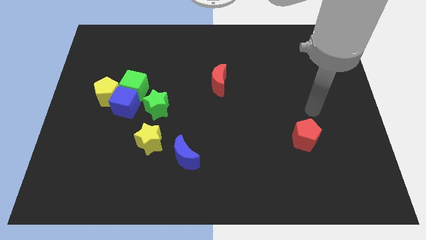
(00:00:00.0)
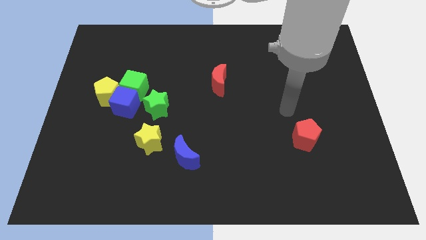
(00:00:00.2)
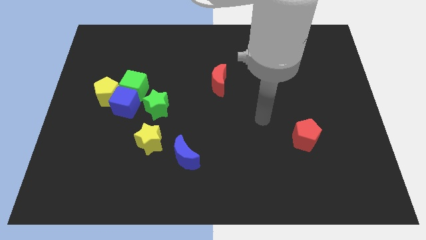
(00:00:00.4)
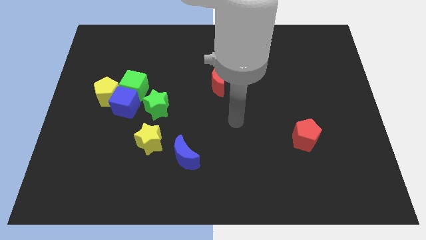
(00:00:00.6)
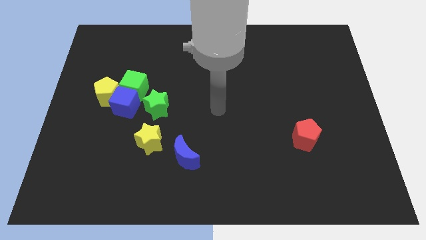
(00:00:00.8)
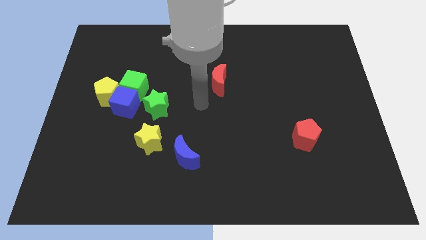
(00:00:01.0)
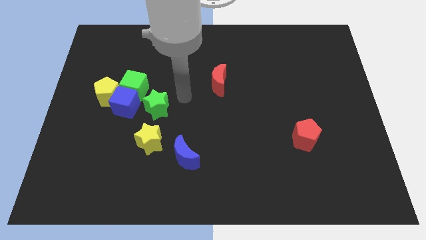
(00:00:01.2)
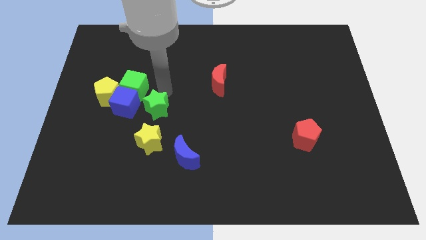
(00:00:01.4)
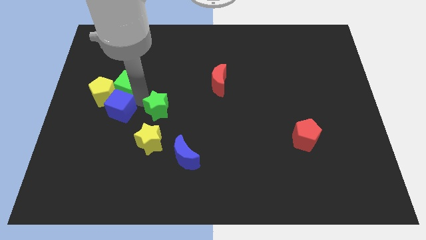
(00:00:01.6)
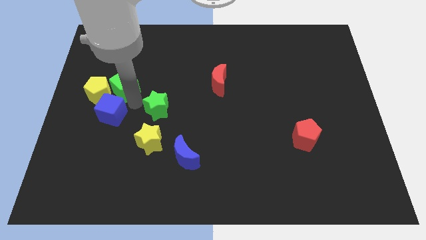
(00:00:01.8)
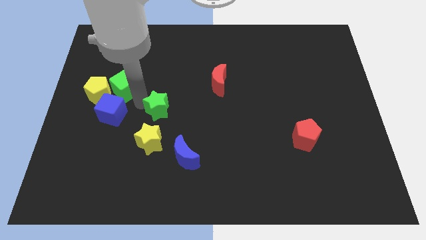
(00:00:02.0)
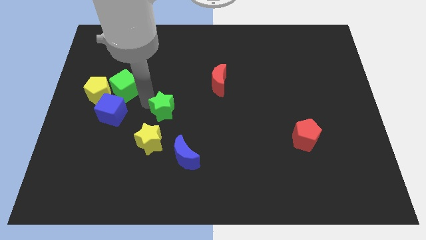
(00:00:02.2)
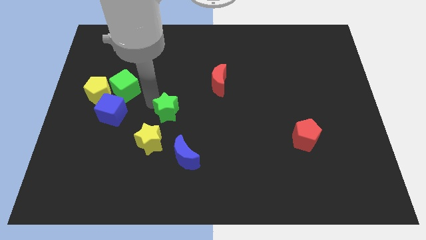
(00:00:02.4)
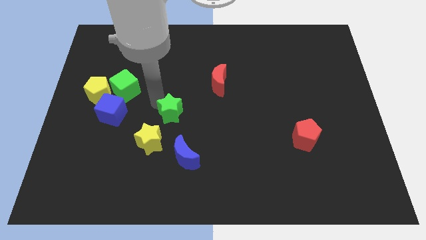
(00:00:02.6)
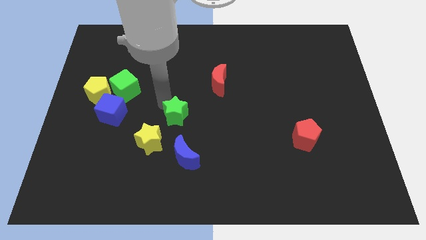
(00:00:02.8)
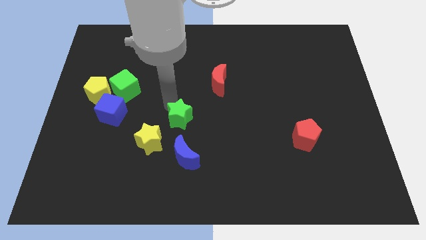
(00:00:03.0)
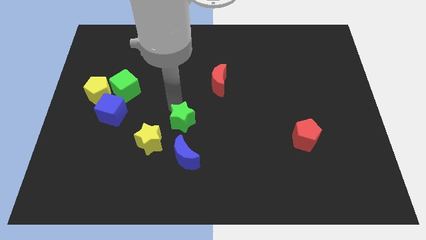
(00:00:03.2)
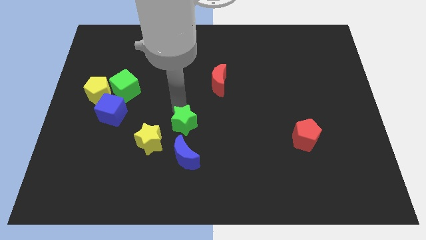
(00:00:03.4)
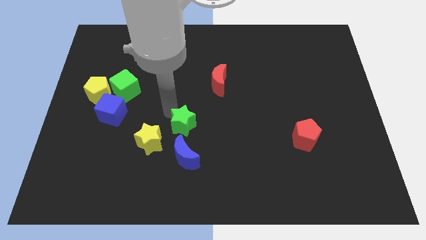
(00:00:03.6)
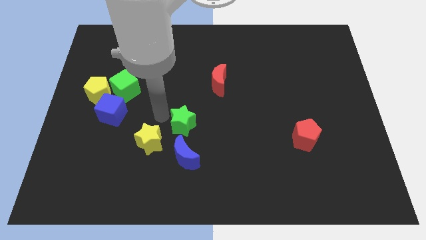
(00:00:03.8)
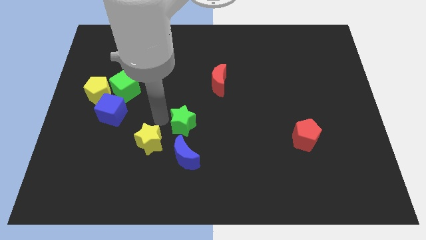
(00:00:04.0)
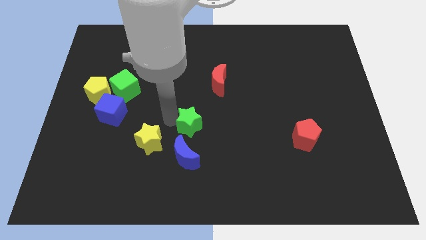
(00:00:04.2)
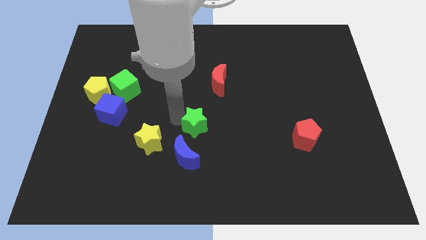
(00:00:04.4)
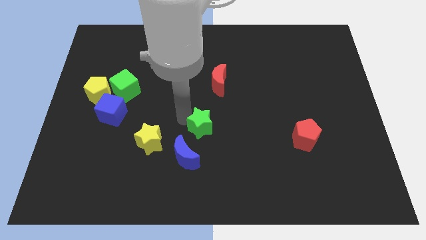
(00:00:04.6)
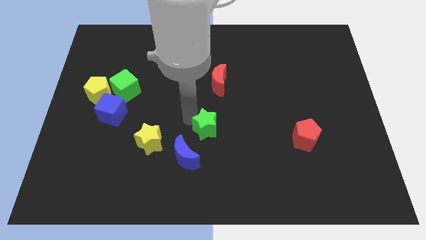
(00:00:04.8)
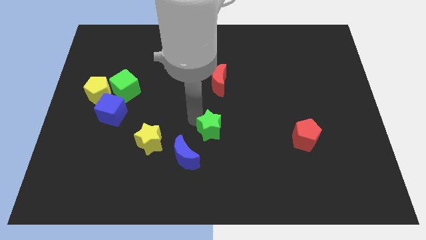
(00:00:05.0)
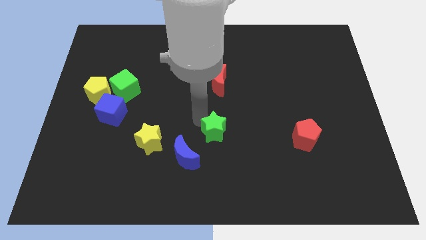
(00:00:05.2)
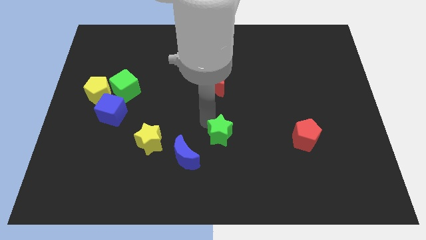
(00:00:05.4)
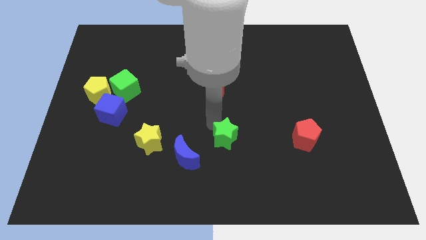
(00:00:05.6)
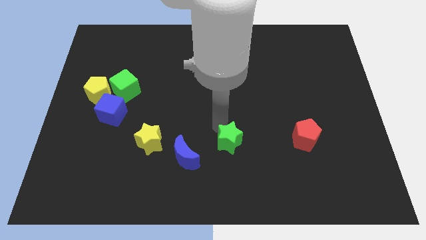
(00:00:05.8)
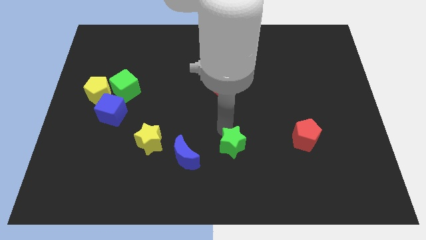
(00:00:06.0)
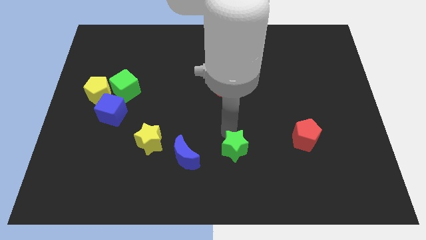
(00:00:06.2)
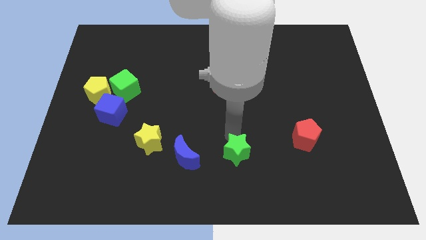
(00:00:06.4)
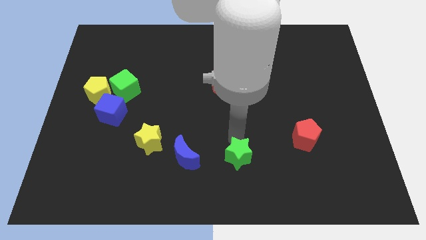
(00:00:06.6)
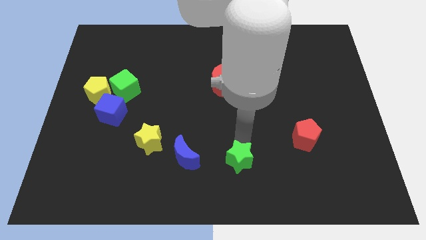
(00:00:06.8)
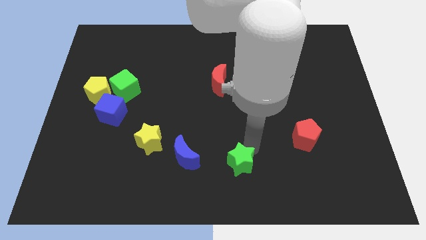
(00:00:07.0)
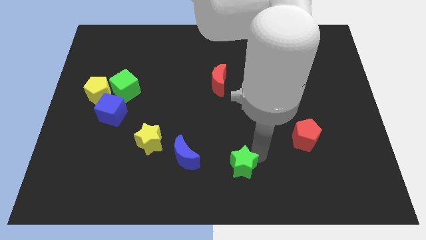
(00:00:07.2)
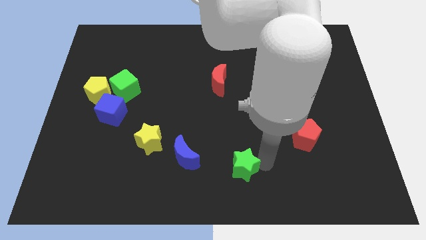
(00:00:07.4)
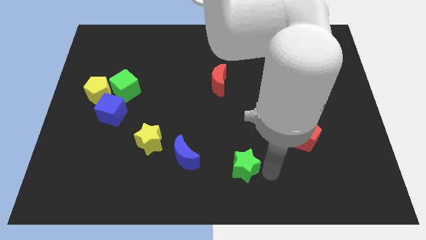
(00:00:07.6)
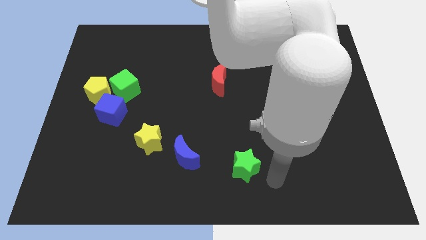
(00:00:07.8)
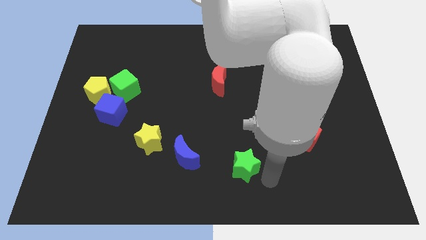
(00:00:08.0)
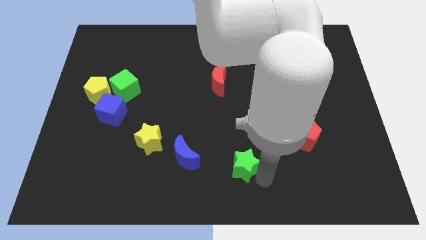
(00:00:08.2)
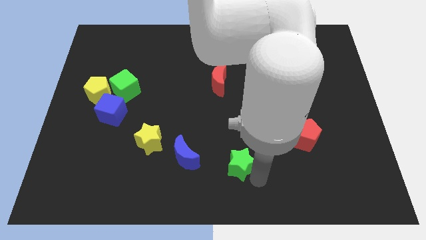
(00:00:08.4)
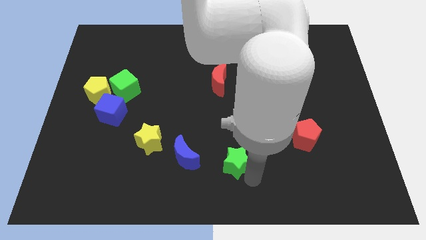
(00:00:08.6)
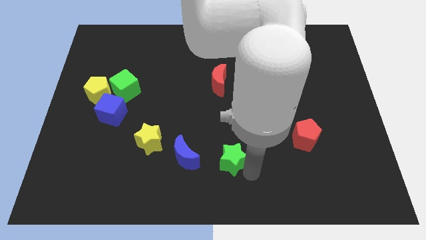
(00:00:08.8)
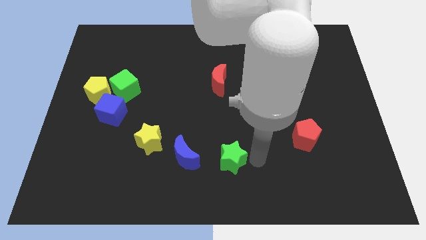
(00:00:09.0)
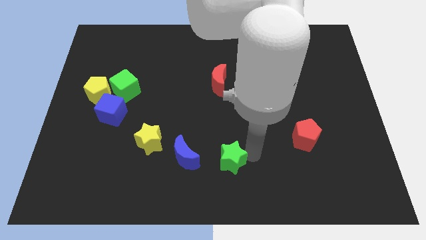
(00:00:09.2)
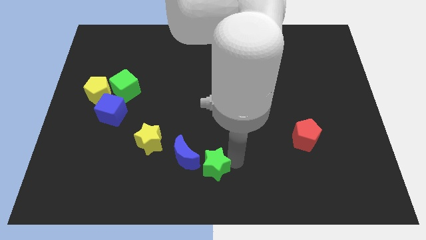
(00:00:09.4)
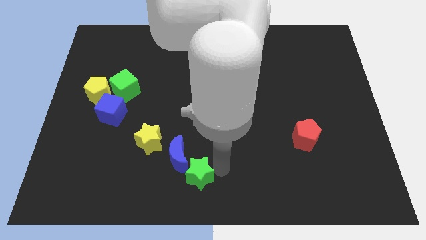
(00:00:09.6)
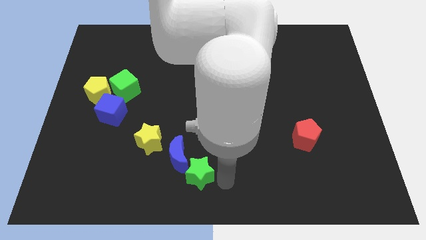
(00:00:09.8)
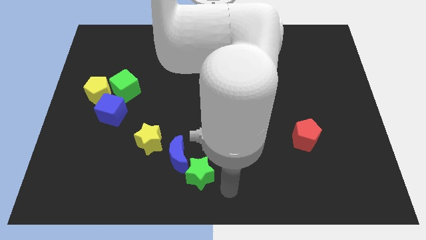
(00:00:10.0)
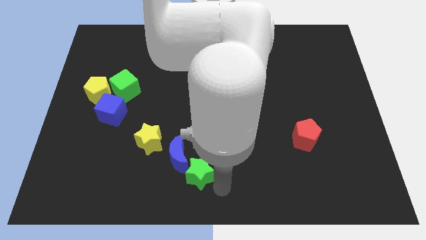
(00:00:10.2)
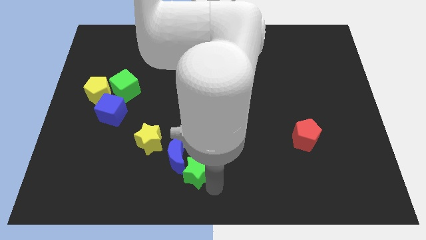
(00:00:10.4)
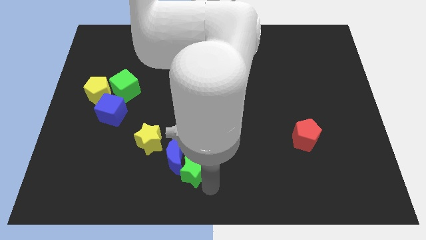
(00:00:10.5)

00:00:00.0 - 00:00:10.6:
slide the green star to the bottom right side of the yellow star

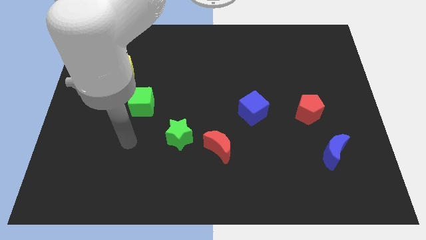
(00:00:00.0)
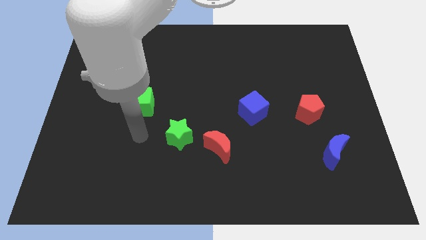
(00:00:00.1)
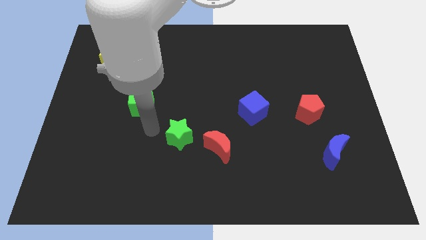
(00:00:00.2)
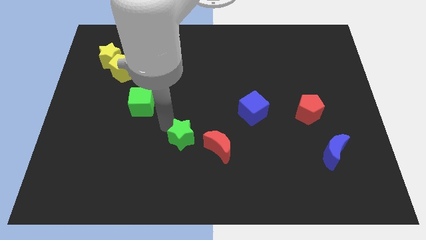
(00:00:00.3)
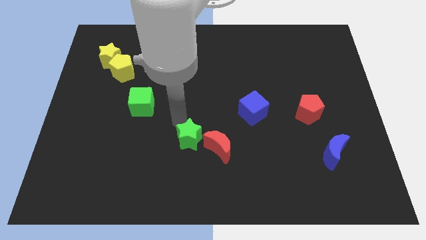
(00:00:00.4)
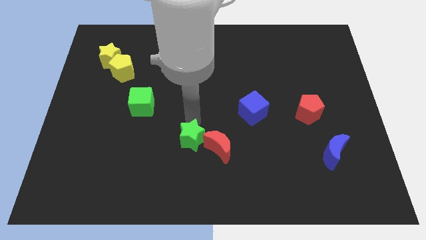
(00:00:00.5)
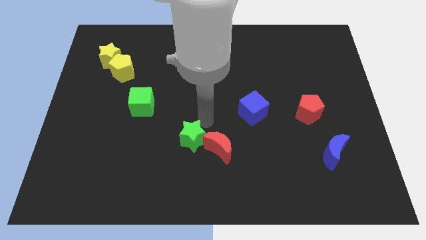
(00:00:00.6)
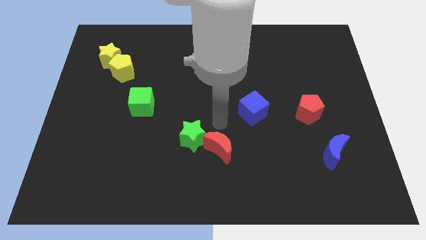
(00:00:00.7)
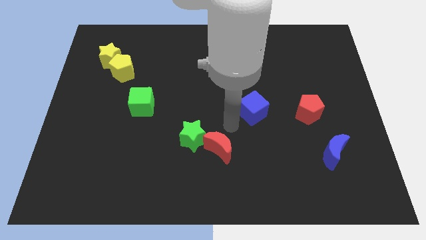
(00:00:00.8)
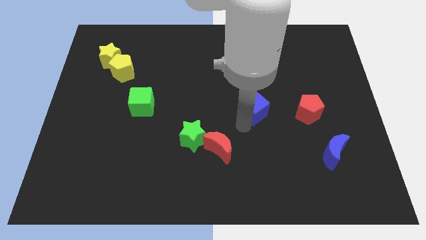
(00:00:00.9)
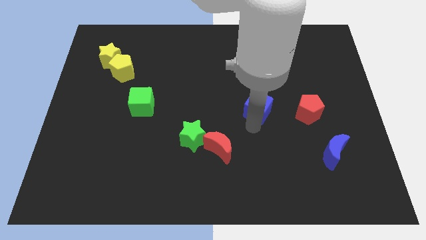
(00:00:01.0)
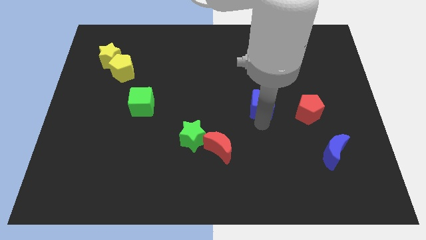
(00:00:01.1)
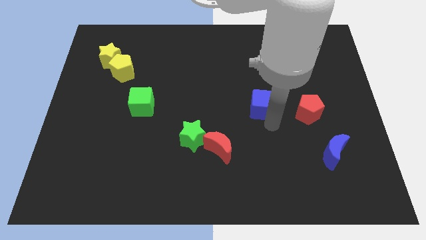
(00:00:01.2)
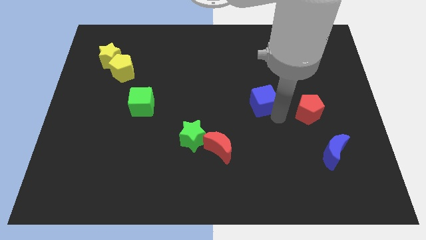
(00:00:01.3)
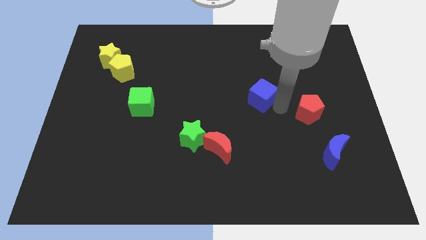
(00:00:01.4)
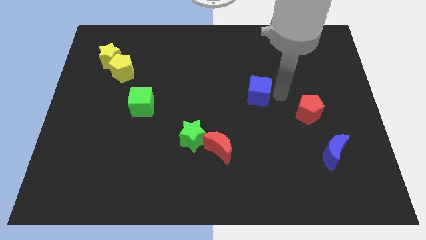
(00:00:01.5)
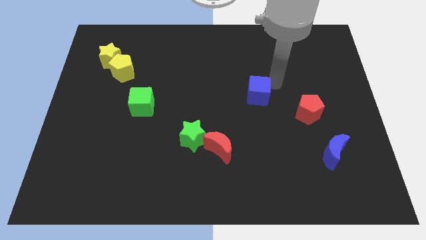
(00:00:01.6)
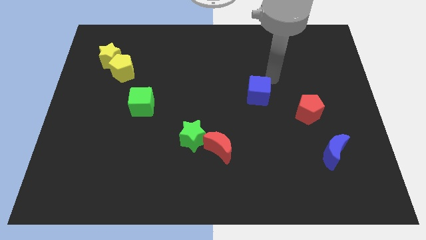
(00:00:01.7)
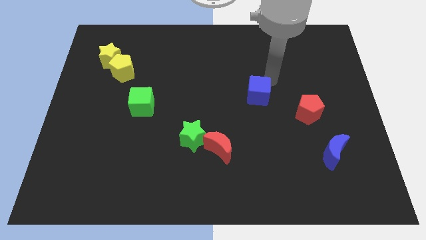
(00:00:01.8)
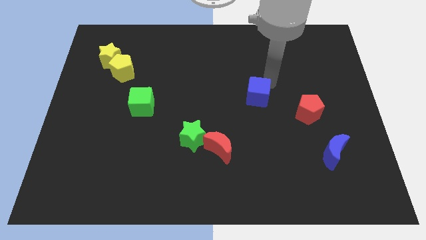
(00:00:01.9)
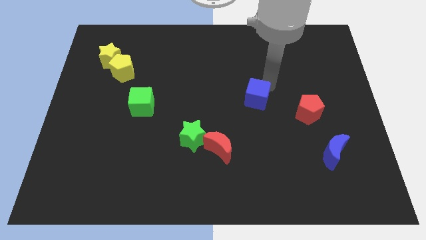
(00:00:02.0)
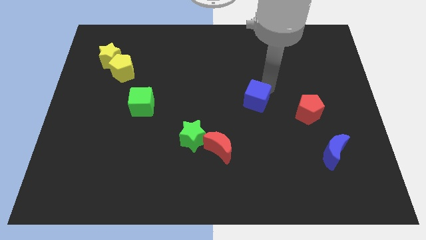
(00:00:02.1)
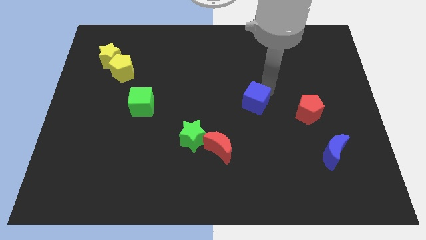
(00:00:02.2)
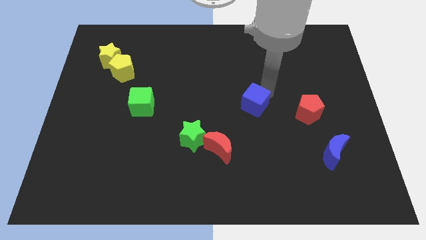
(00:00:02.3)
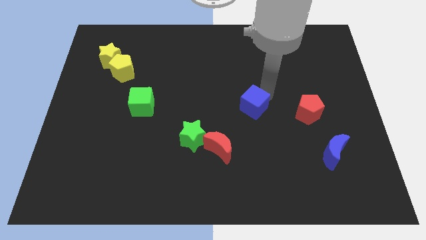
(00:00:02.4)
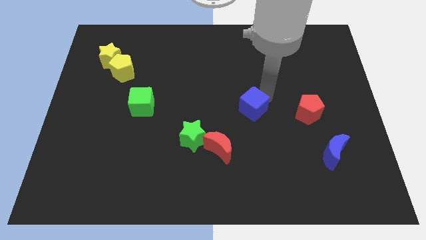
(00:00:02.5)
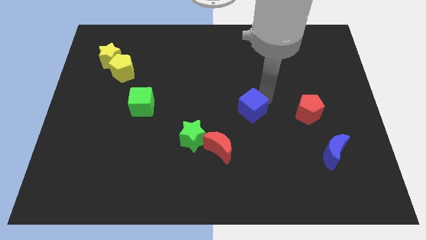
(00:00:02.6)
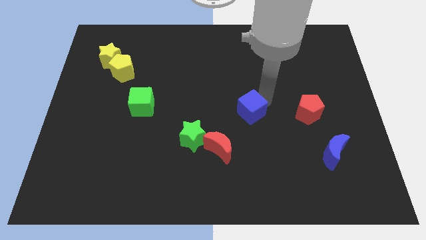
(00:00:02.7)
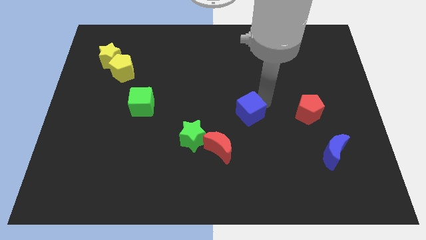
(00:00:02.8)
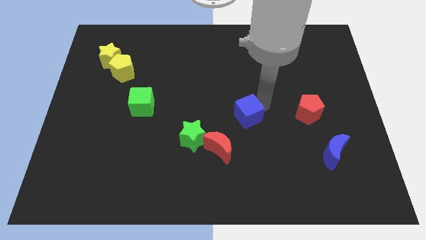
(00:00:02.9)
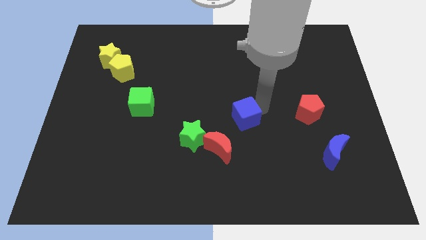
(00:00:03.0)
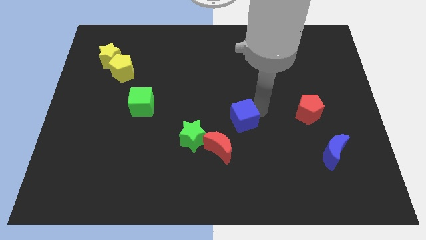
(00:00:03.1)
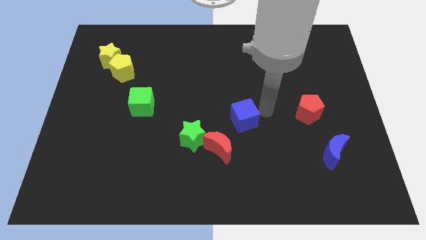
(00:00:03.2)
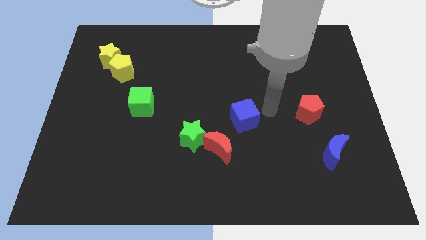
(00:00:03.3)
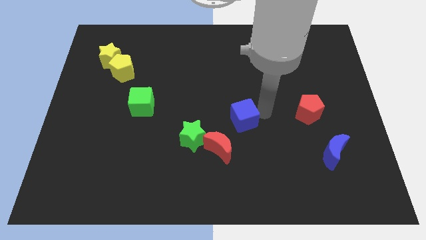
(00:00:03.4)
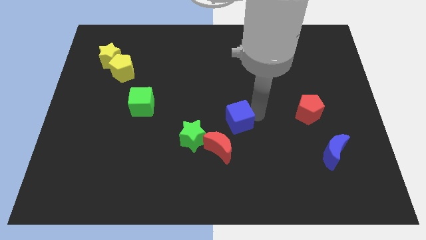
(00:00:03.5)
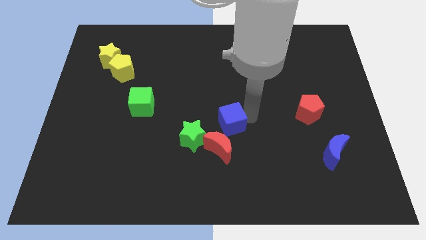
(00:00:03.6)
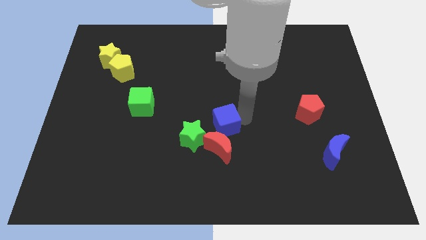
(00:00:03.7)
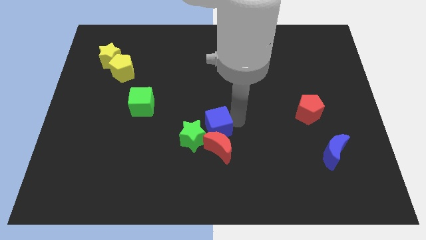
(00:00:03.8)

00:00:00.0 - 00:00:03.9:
slide the blue cube diagonally up and to the left of the red moon
